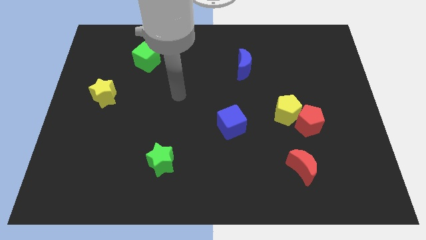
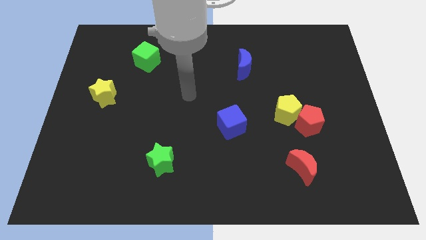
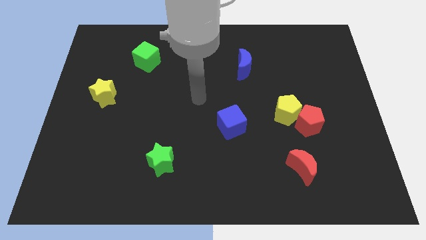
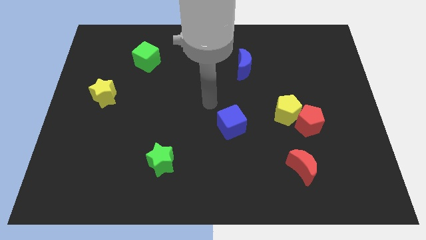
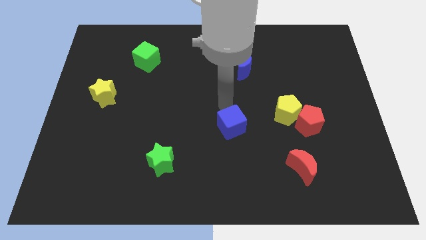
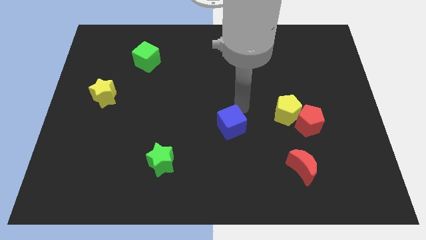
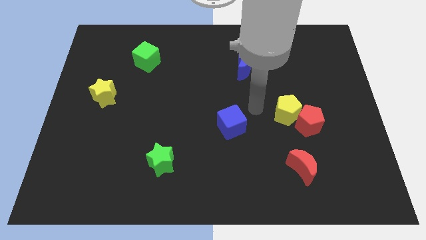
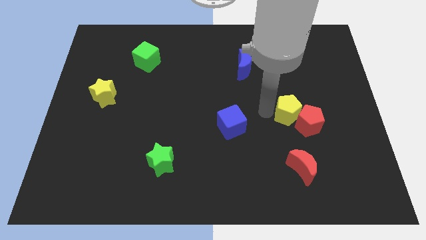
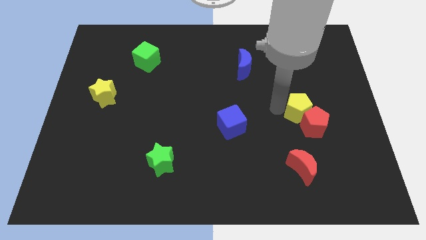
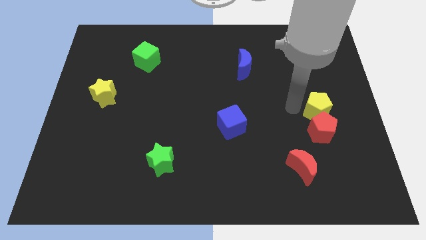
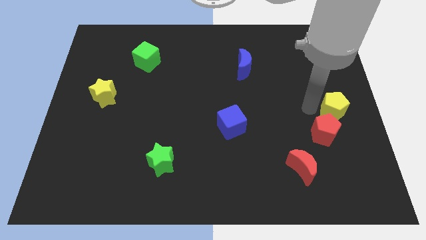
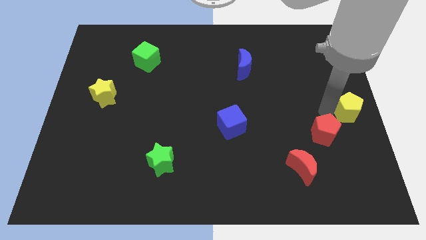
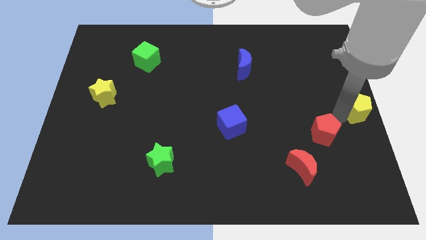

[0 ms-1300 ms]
pull the red pentagon apart from the yellow pentagon

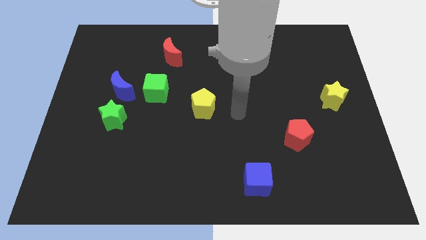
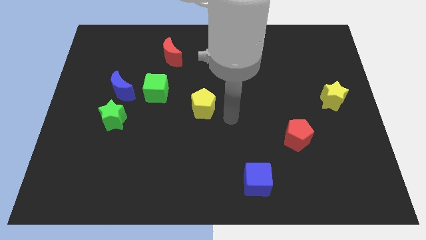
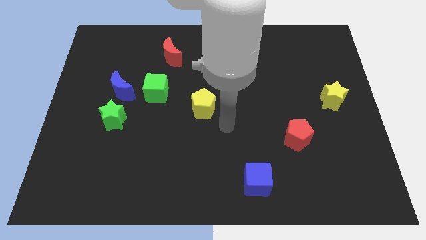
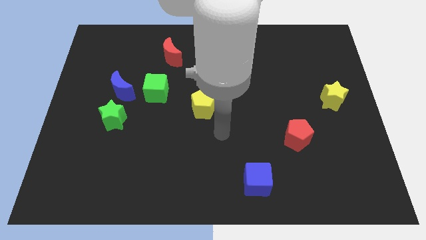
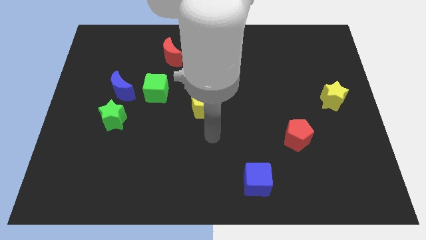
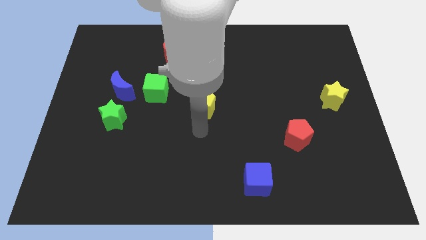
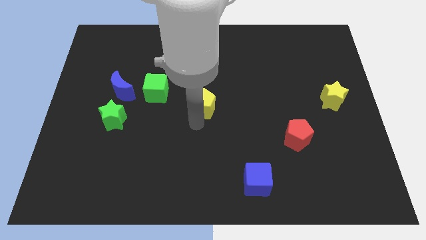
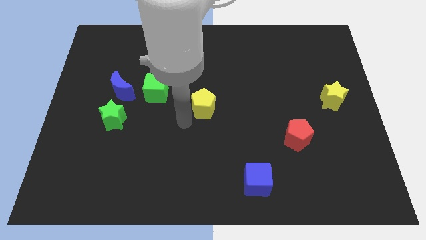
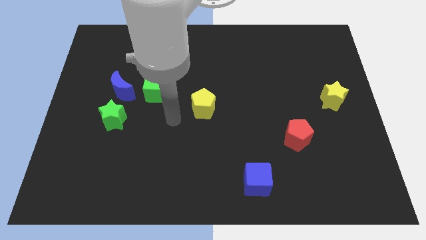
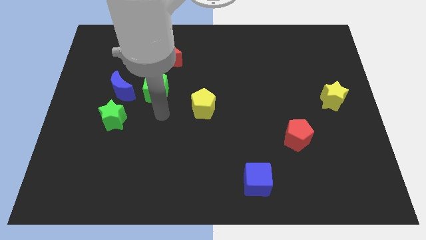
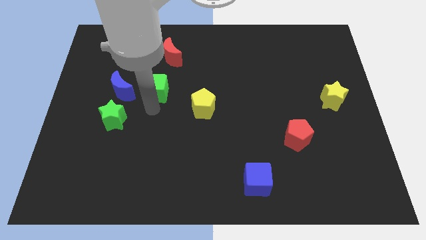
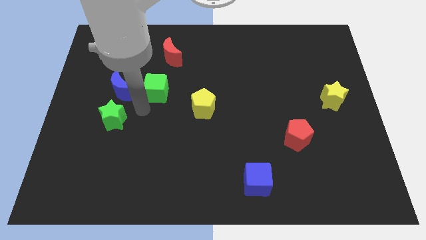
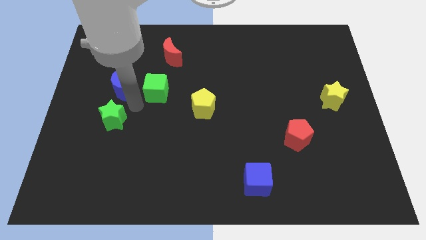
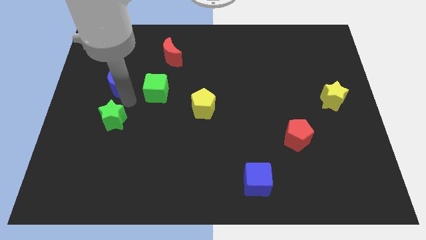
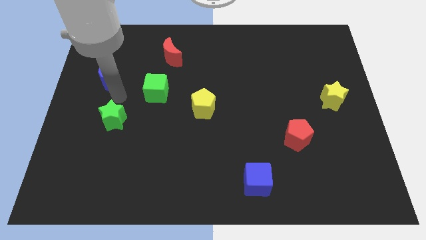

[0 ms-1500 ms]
move the green star away from the blue moon

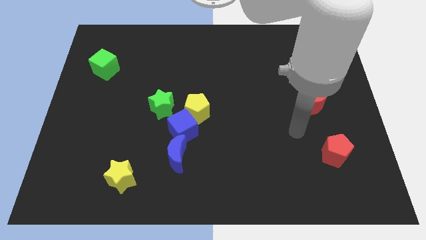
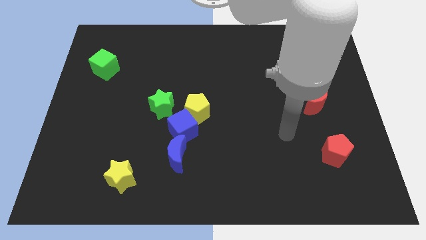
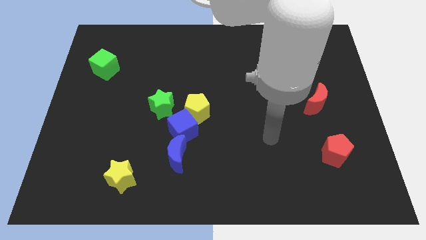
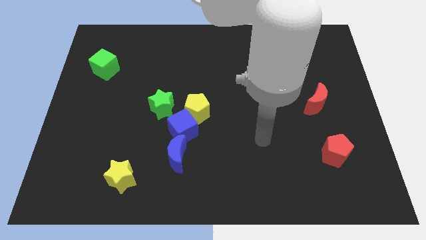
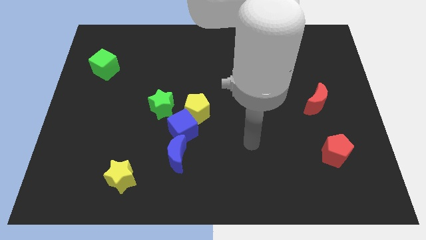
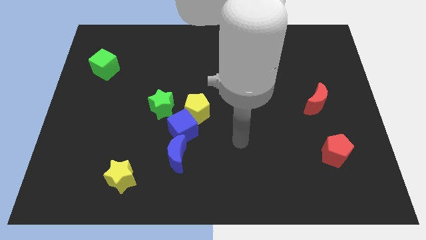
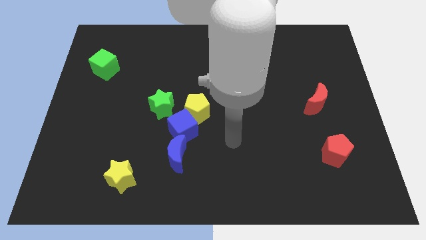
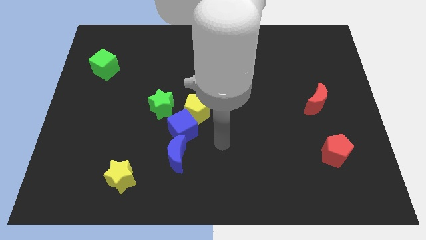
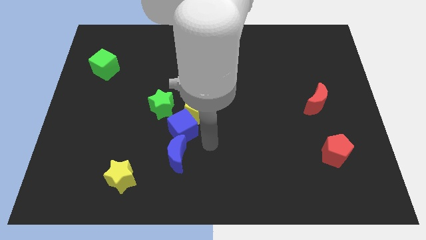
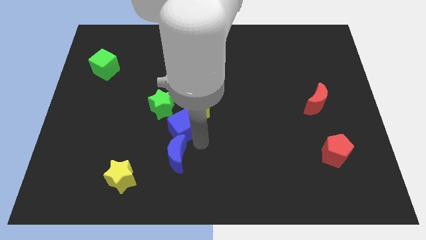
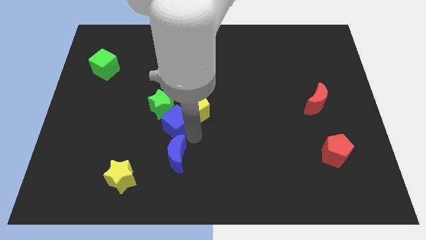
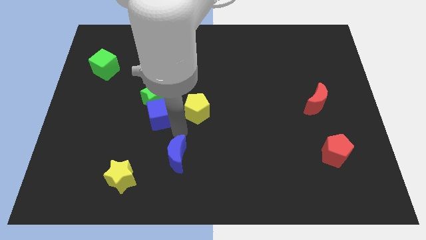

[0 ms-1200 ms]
move the blue moon away from the blue cube

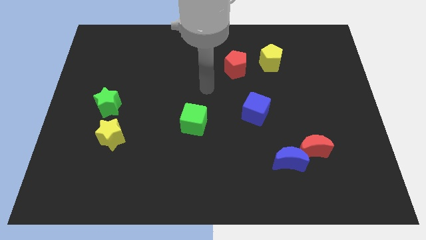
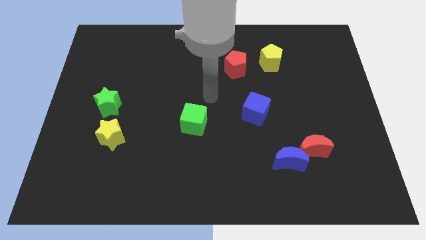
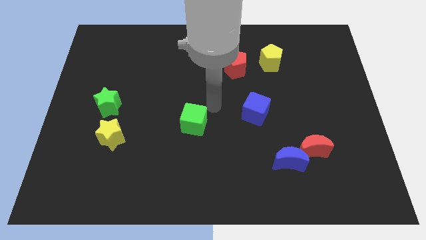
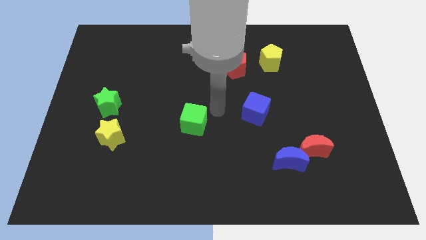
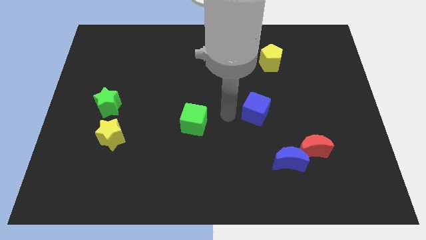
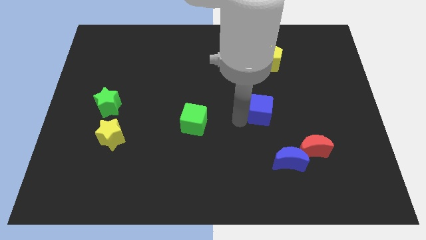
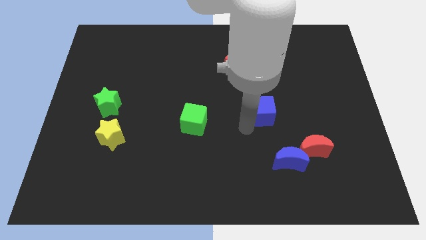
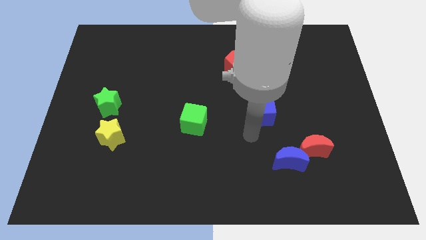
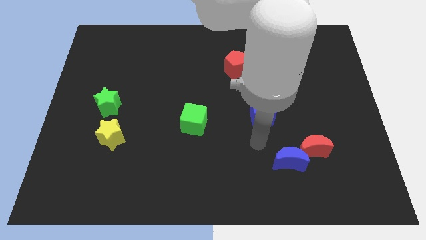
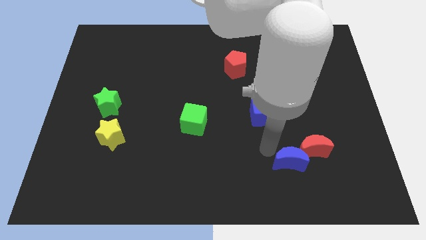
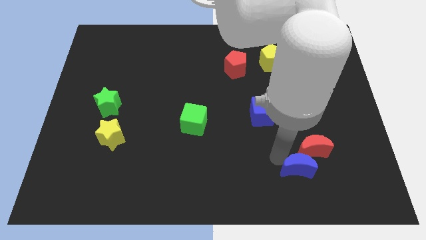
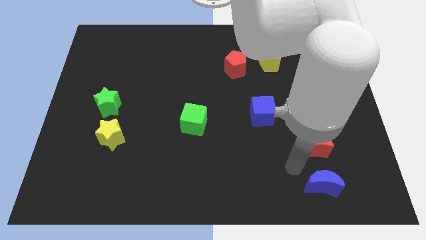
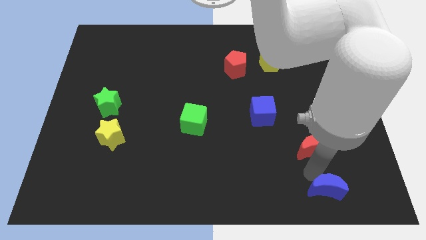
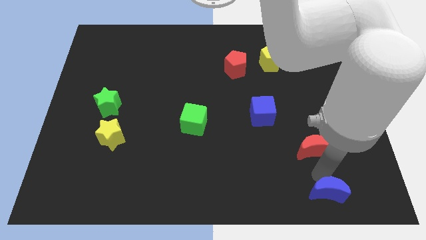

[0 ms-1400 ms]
move the red moon away from the blue moon

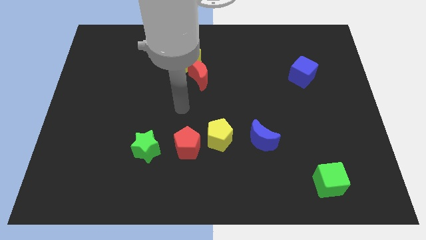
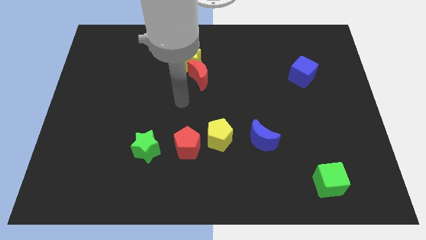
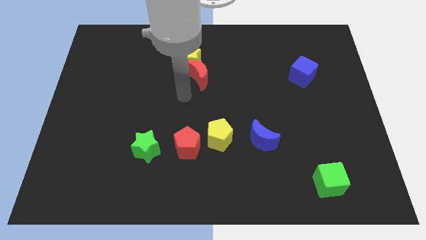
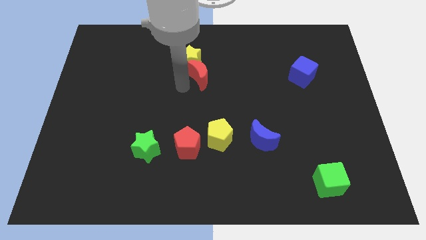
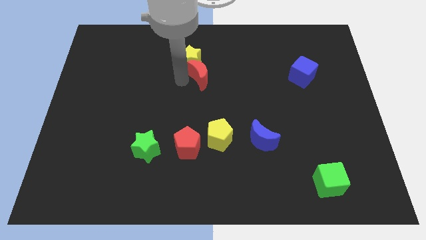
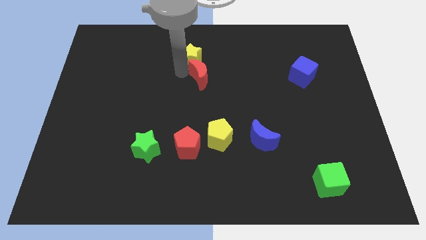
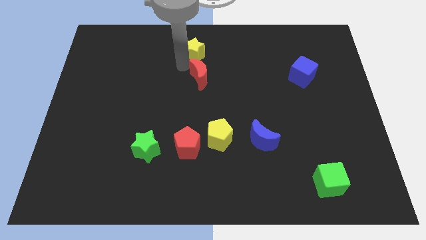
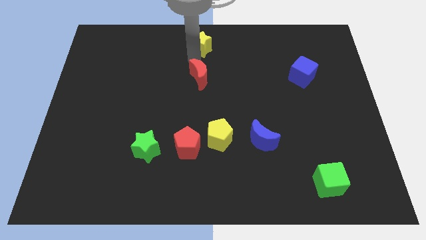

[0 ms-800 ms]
pull the red moon apart from the yellow star

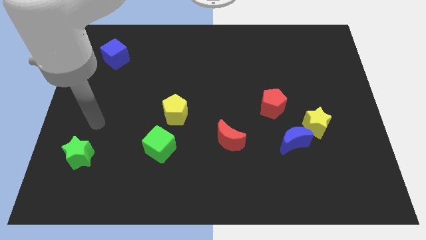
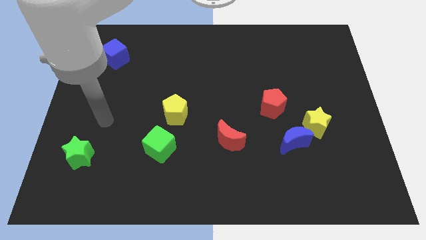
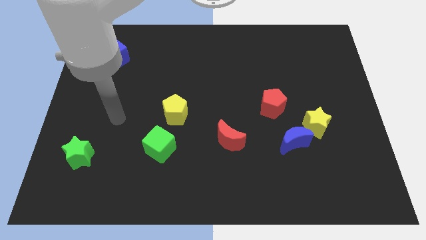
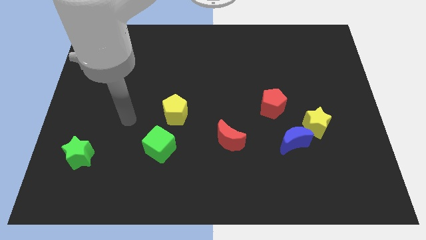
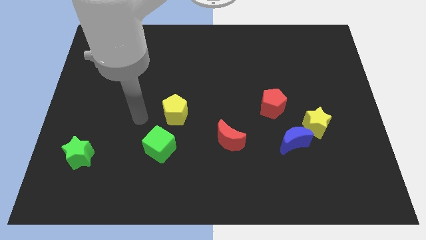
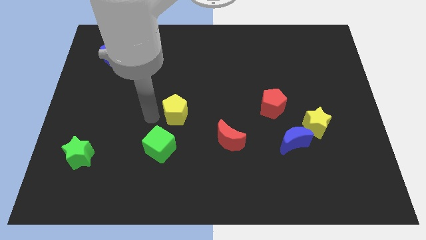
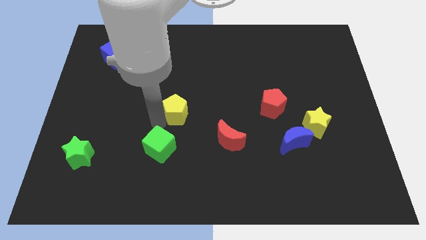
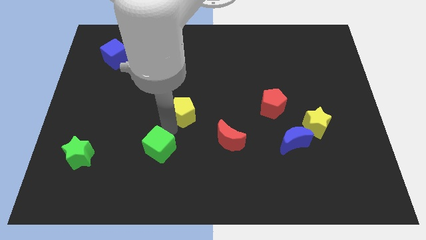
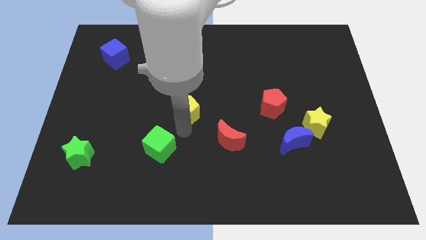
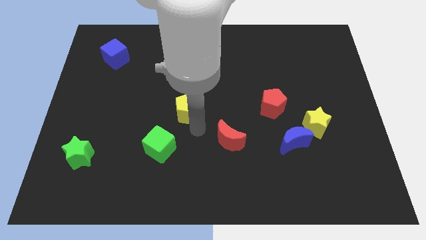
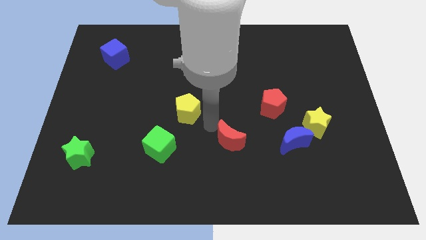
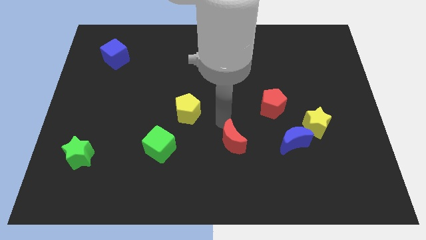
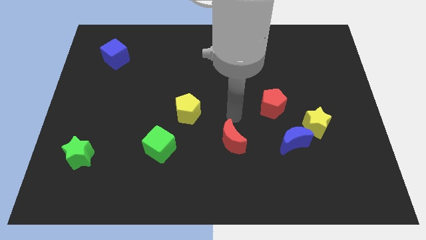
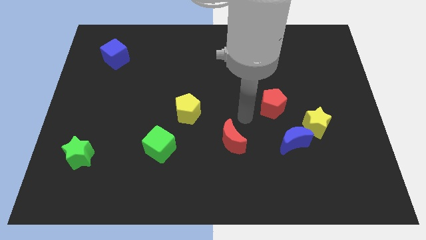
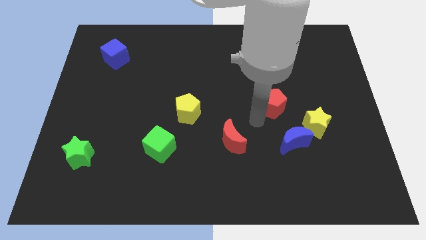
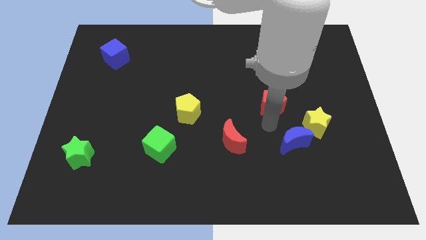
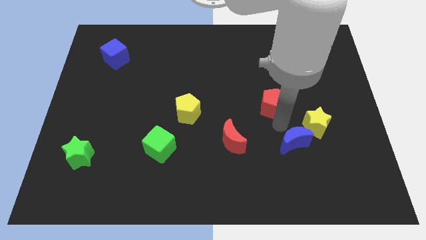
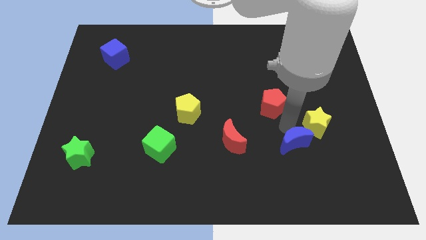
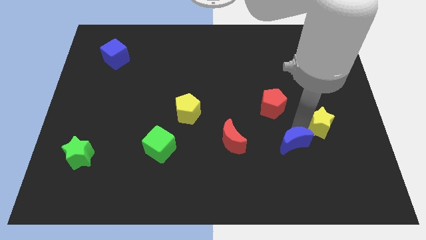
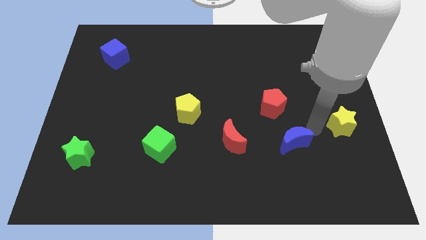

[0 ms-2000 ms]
move the blue moon away from the yellow star

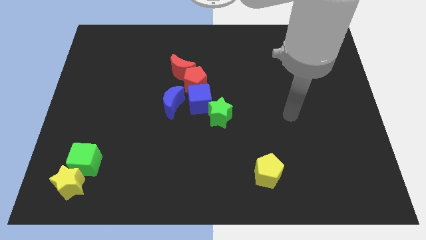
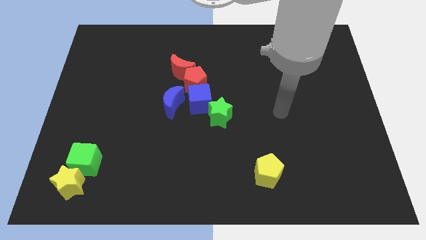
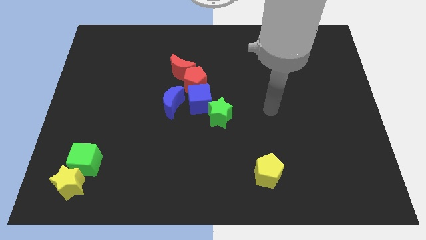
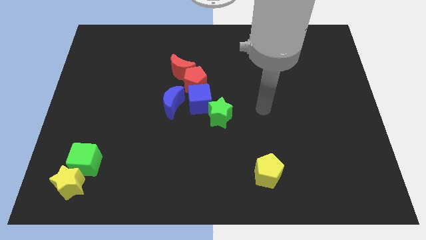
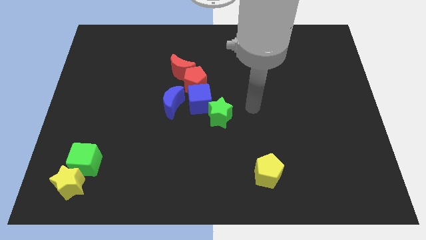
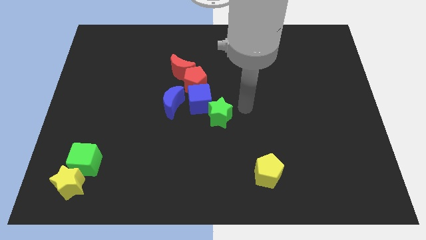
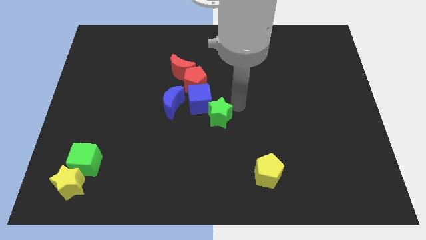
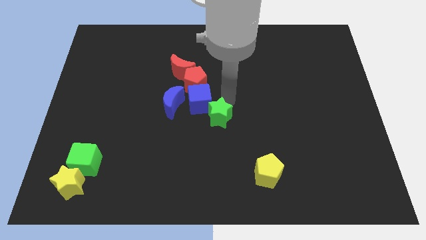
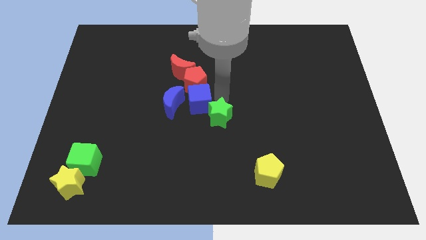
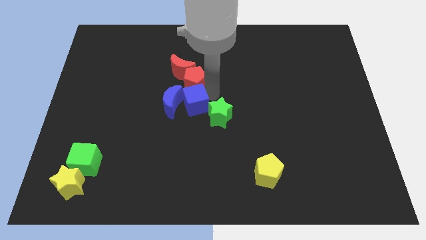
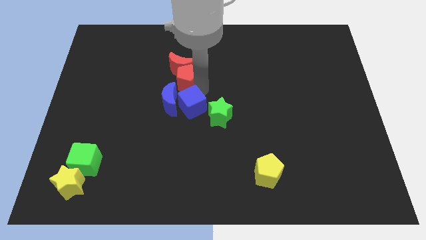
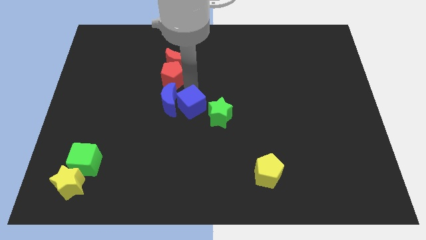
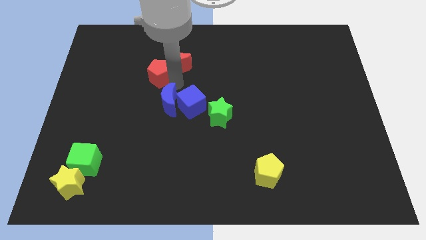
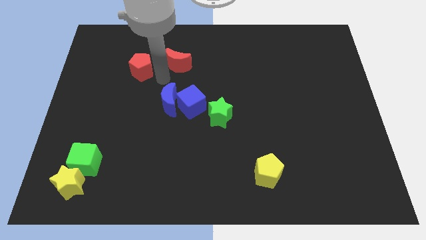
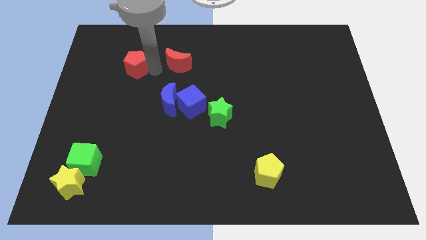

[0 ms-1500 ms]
pull the red moon apart from the red pentagon
